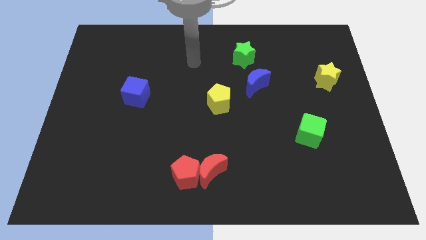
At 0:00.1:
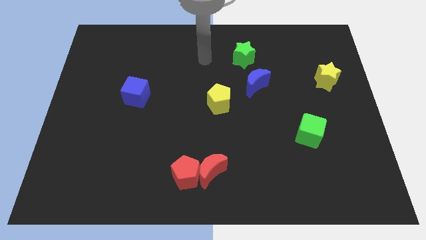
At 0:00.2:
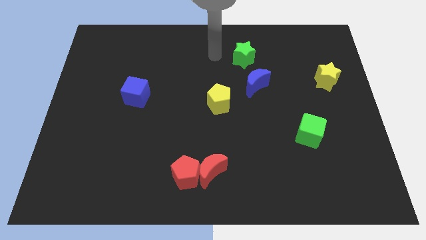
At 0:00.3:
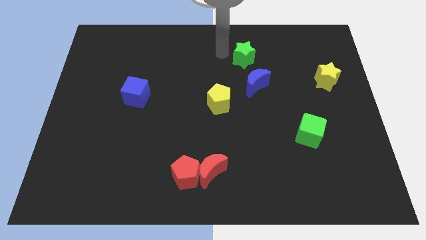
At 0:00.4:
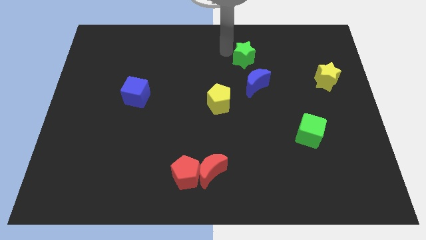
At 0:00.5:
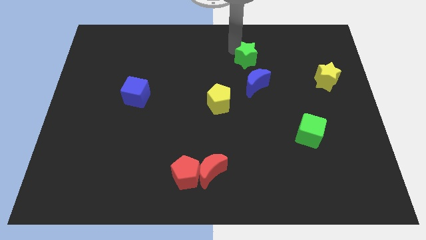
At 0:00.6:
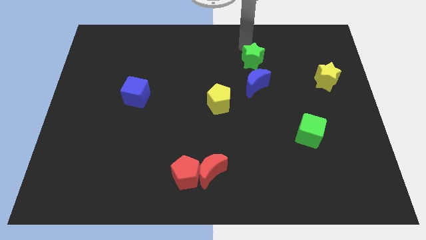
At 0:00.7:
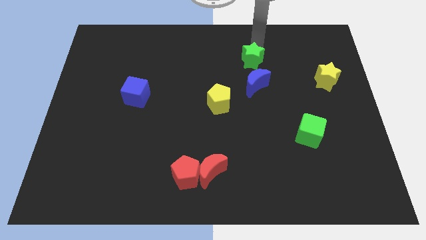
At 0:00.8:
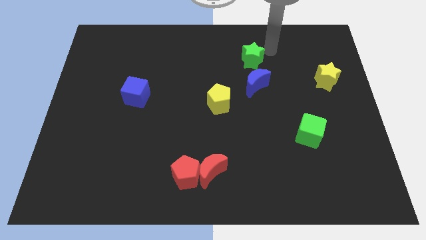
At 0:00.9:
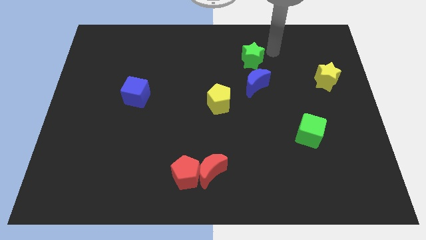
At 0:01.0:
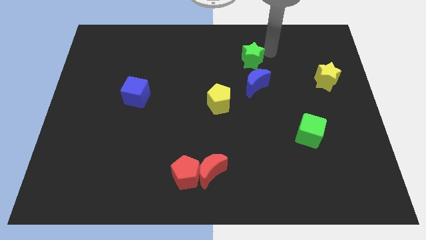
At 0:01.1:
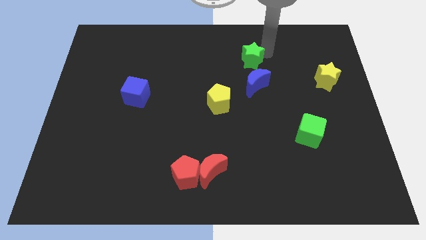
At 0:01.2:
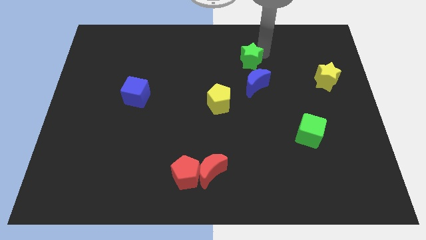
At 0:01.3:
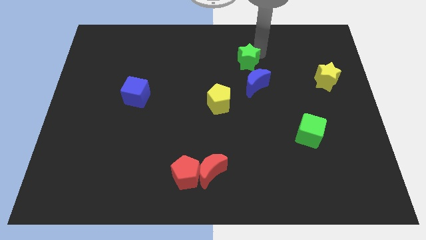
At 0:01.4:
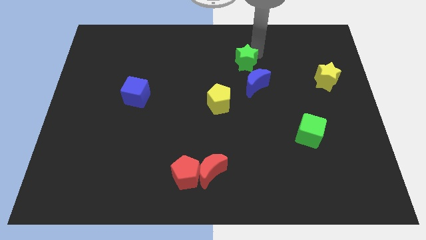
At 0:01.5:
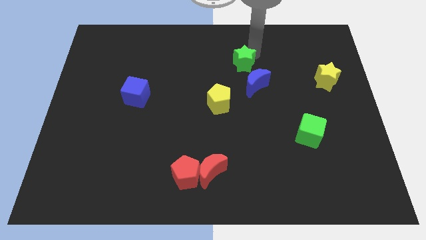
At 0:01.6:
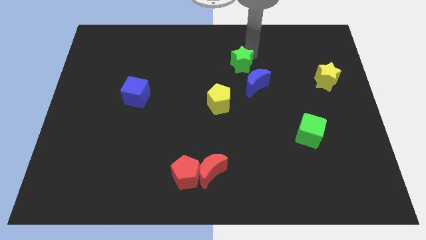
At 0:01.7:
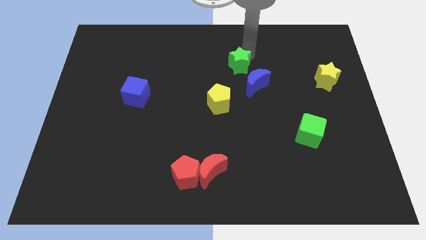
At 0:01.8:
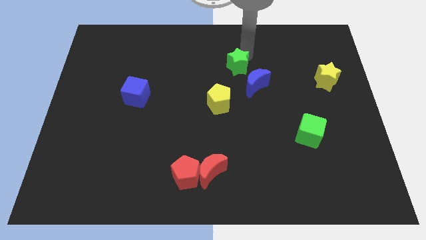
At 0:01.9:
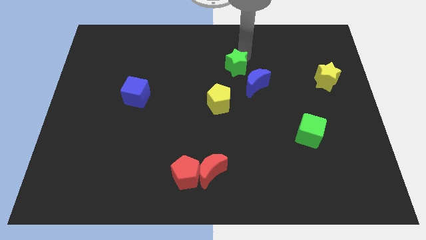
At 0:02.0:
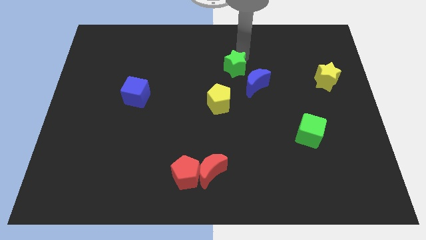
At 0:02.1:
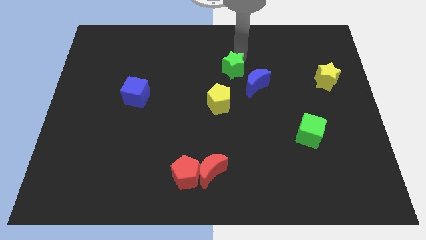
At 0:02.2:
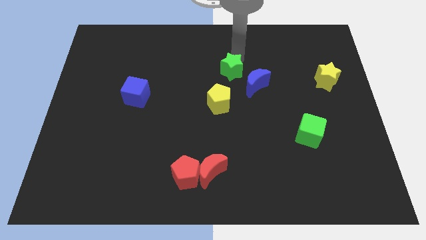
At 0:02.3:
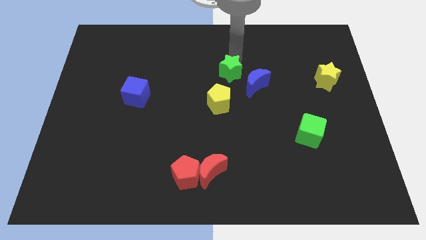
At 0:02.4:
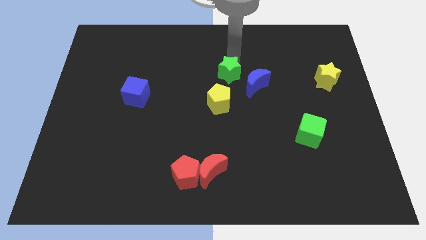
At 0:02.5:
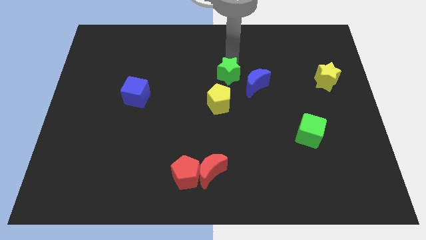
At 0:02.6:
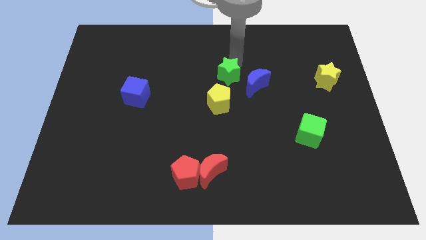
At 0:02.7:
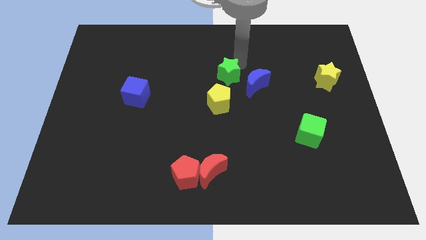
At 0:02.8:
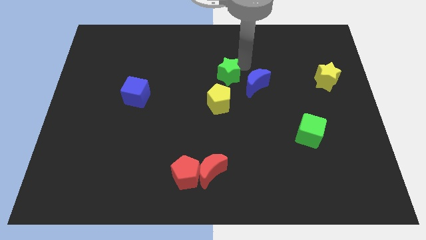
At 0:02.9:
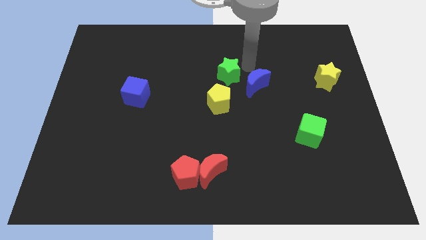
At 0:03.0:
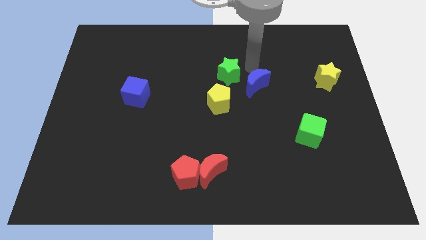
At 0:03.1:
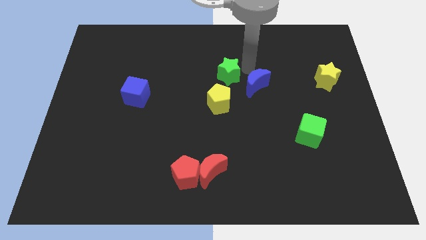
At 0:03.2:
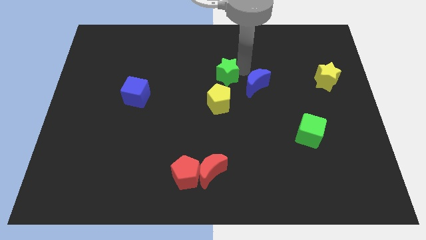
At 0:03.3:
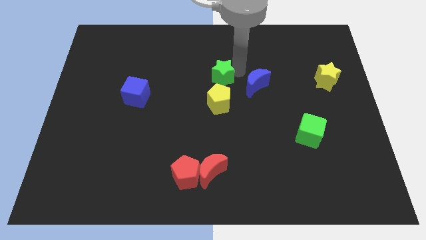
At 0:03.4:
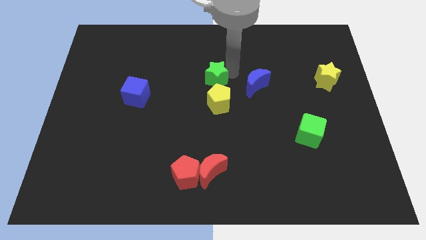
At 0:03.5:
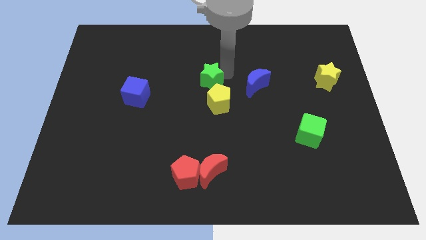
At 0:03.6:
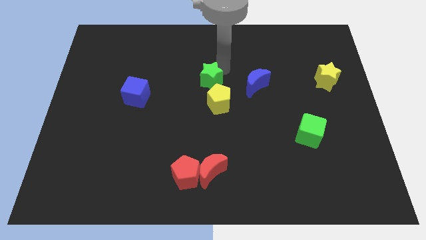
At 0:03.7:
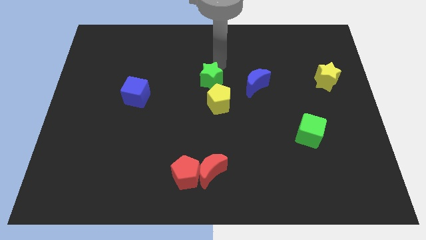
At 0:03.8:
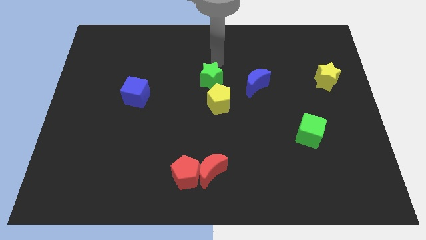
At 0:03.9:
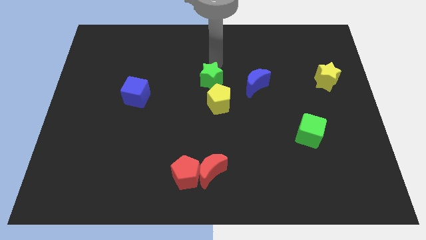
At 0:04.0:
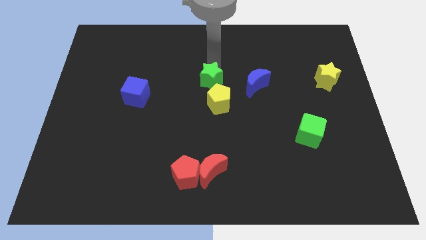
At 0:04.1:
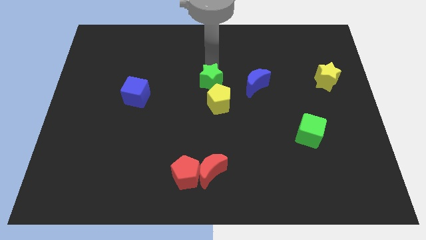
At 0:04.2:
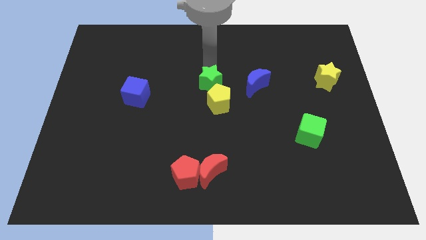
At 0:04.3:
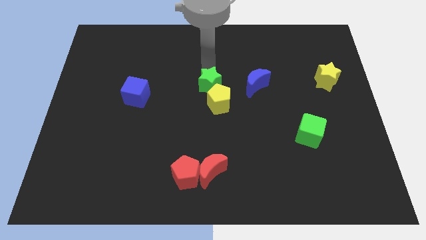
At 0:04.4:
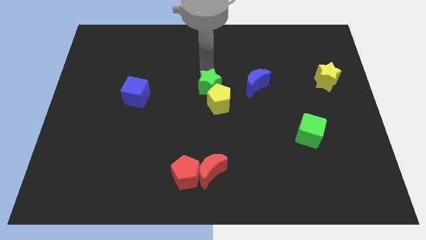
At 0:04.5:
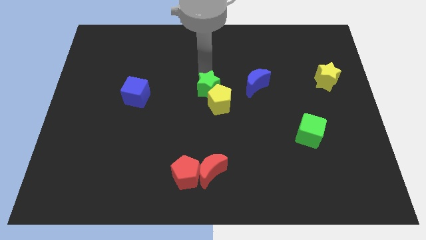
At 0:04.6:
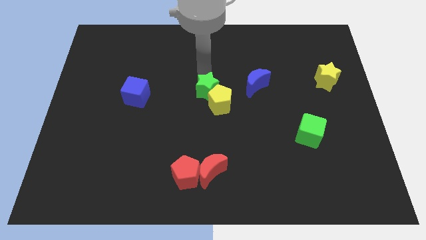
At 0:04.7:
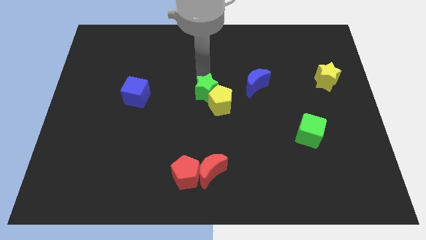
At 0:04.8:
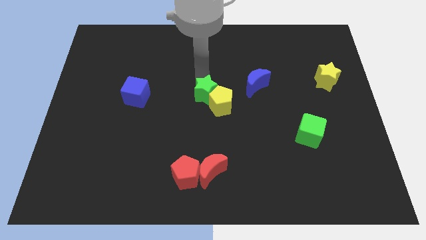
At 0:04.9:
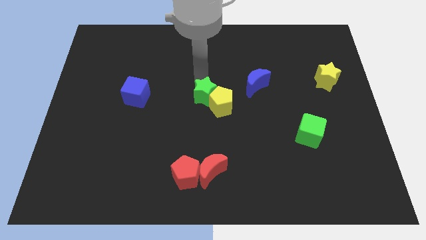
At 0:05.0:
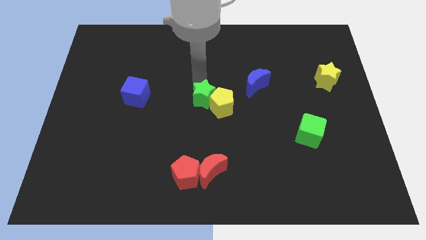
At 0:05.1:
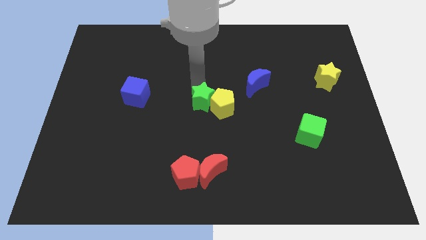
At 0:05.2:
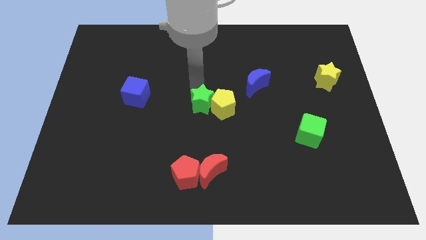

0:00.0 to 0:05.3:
slide the green star to the bottom left of the yellow pentagon

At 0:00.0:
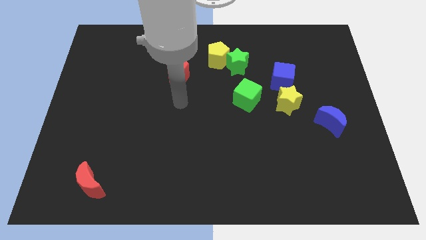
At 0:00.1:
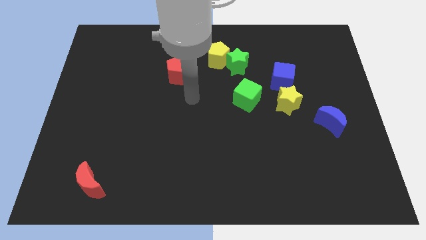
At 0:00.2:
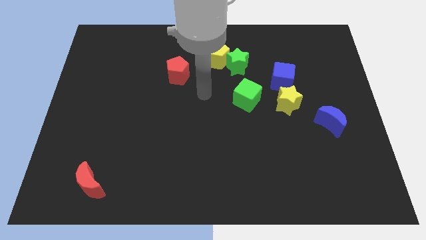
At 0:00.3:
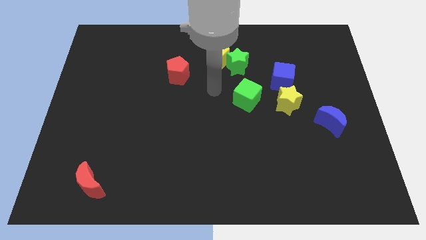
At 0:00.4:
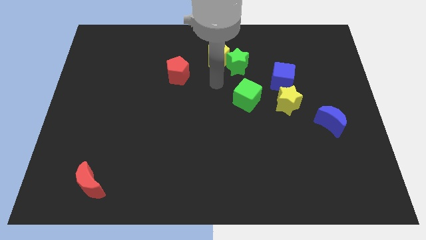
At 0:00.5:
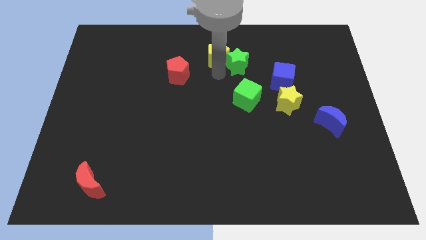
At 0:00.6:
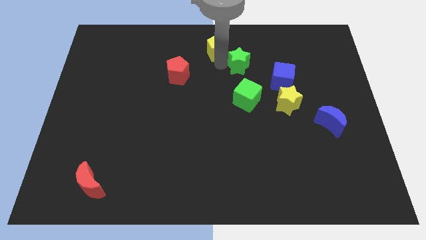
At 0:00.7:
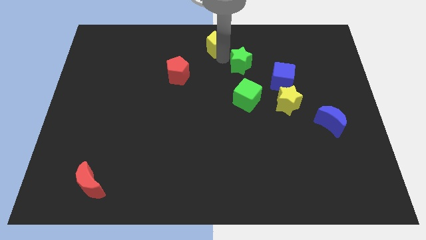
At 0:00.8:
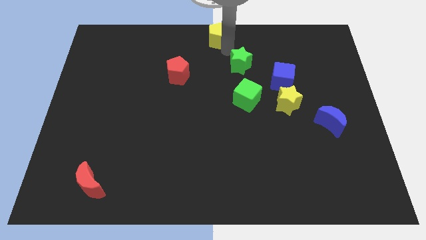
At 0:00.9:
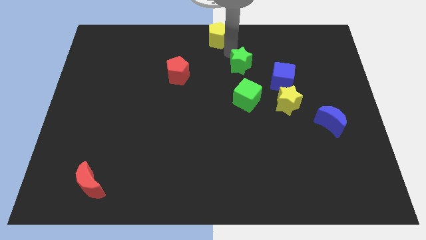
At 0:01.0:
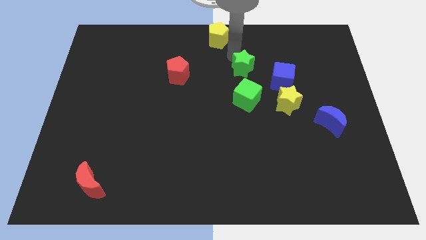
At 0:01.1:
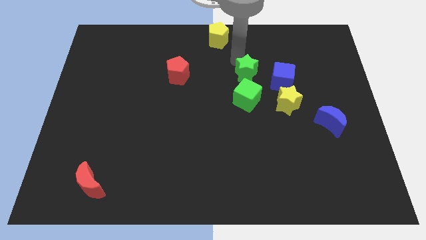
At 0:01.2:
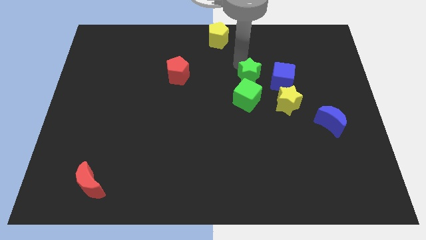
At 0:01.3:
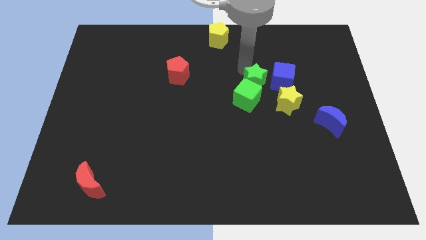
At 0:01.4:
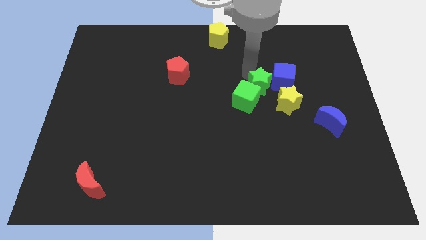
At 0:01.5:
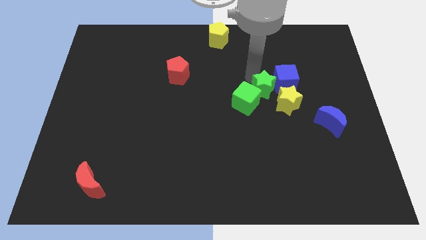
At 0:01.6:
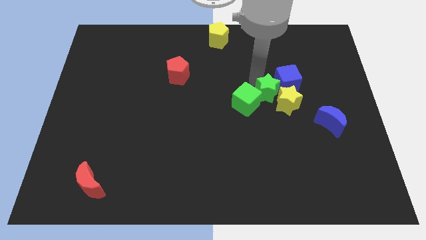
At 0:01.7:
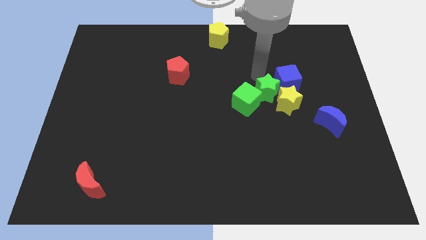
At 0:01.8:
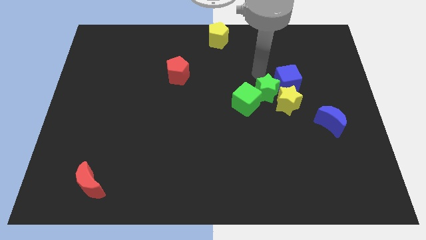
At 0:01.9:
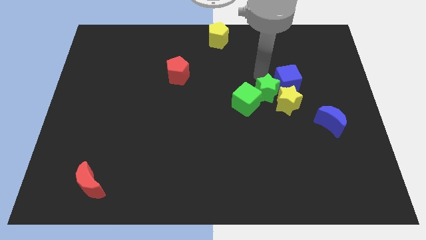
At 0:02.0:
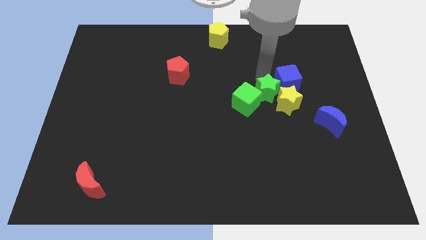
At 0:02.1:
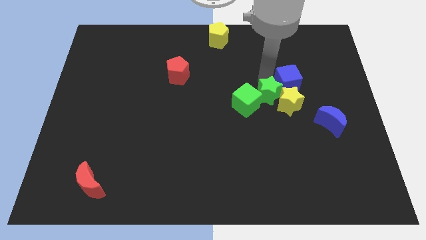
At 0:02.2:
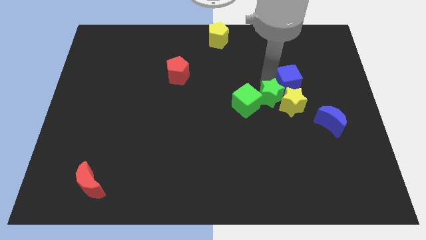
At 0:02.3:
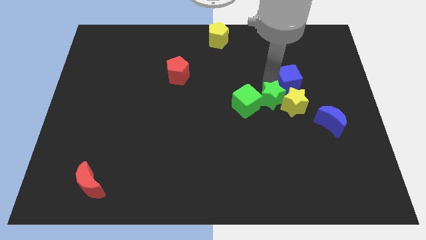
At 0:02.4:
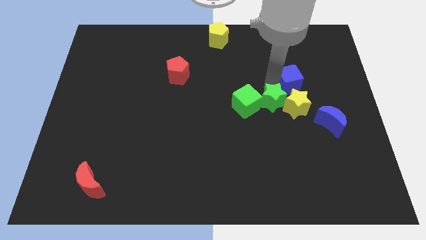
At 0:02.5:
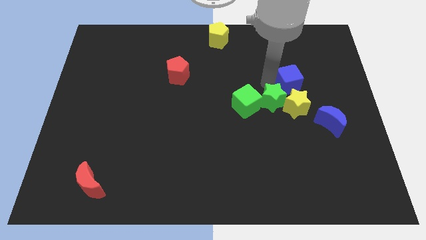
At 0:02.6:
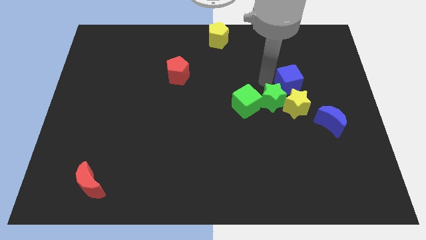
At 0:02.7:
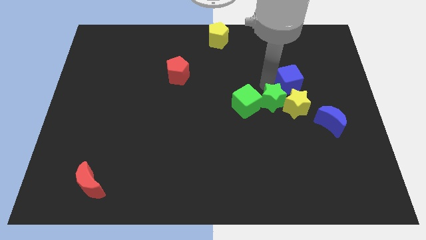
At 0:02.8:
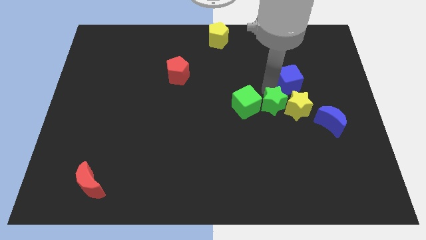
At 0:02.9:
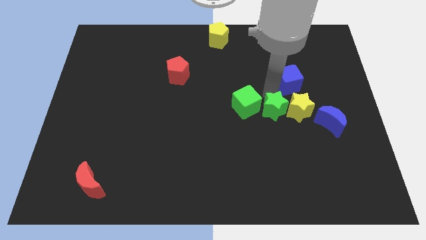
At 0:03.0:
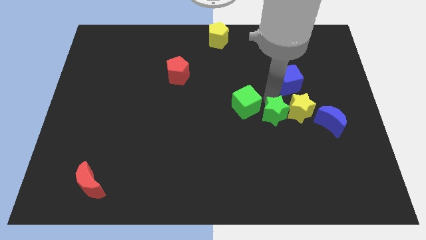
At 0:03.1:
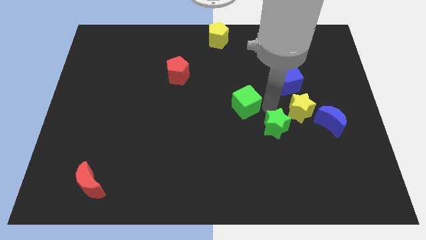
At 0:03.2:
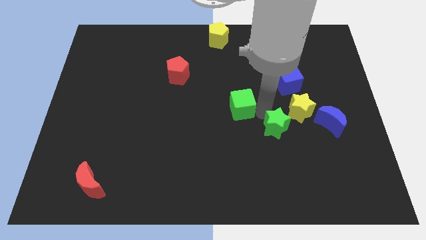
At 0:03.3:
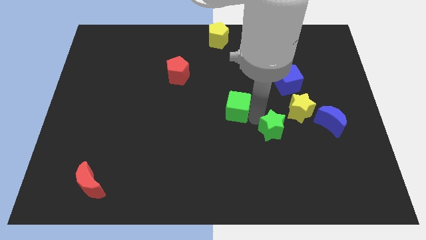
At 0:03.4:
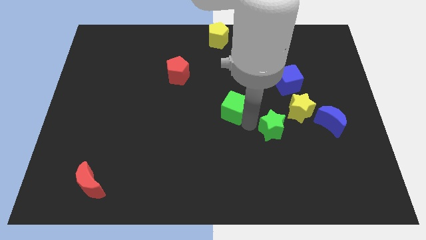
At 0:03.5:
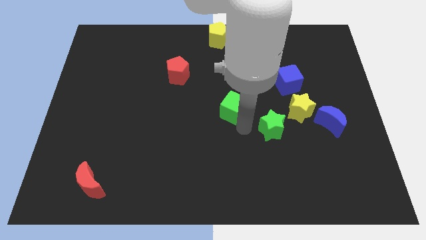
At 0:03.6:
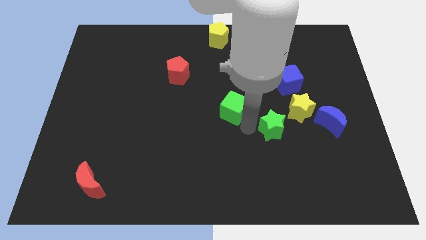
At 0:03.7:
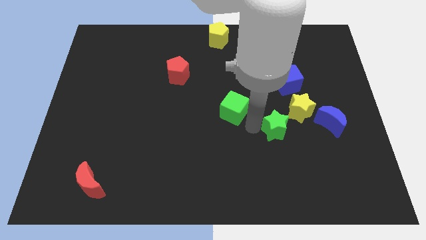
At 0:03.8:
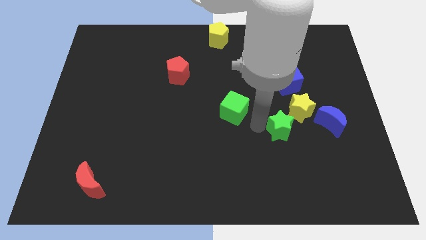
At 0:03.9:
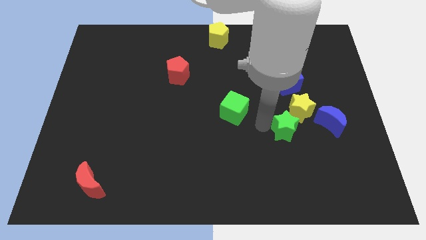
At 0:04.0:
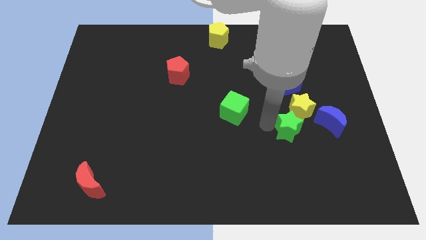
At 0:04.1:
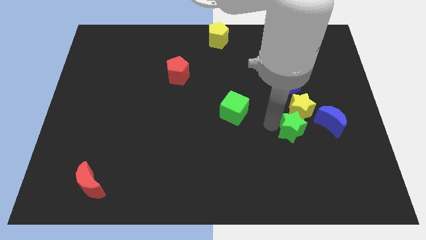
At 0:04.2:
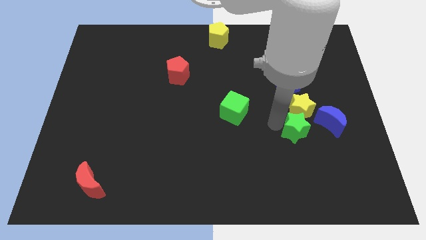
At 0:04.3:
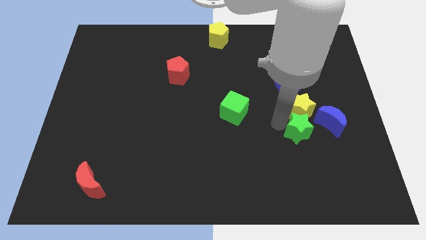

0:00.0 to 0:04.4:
push the green star to the bottom right side of the yellow star
